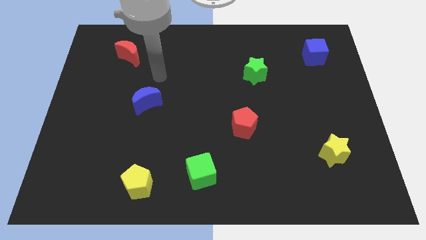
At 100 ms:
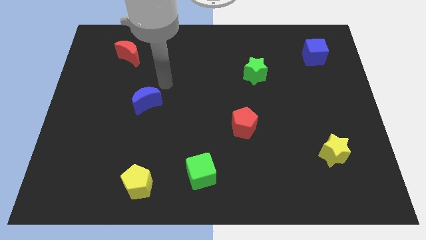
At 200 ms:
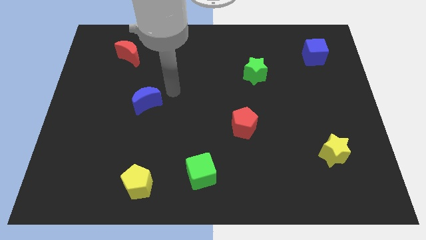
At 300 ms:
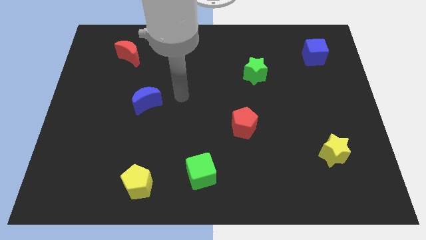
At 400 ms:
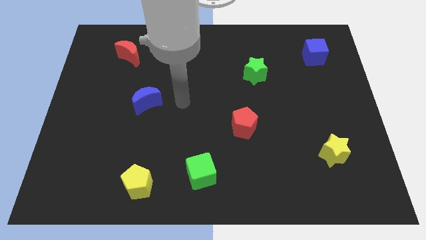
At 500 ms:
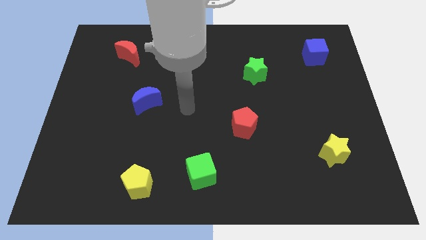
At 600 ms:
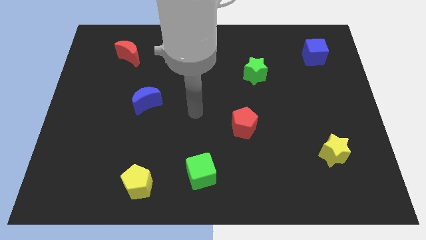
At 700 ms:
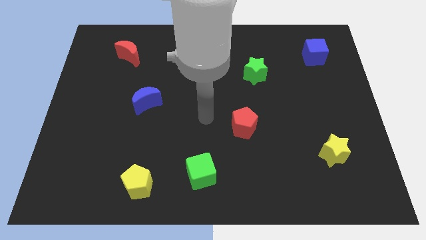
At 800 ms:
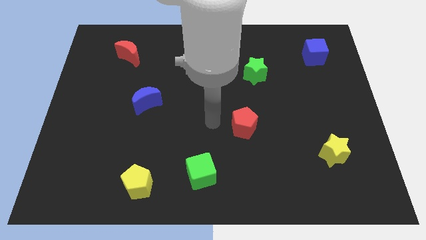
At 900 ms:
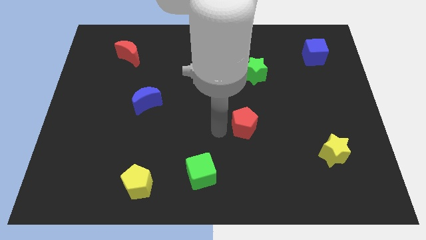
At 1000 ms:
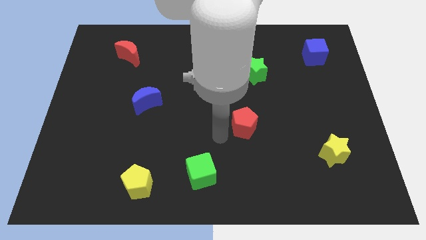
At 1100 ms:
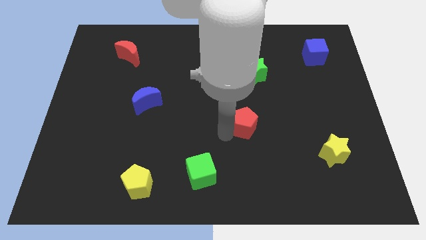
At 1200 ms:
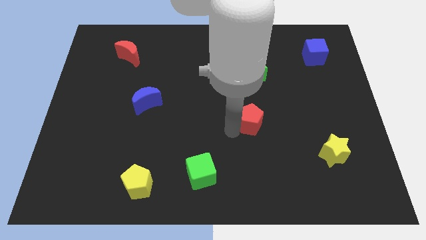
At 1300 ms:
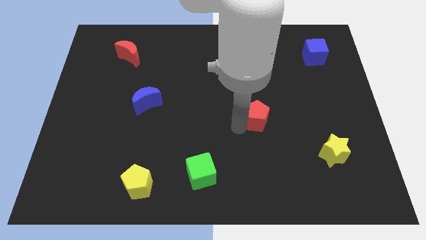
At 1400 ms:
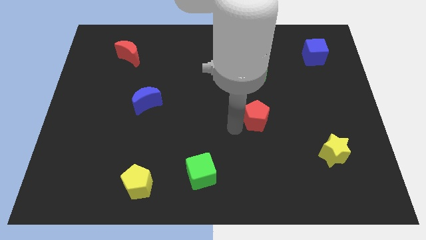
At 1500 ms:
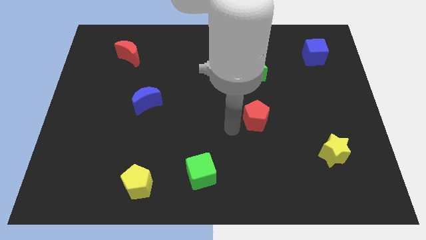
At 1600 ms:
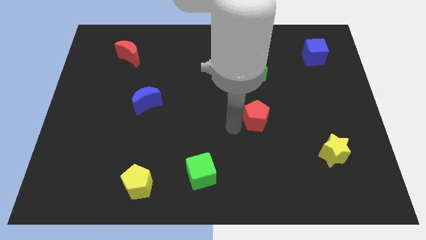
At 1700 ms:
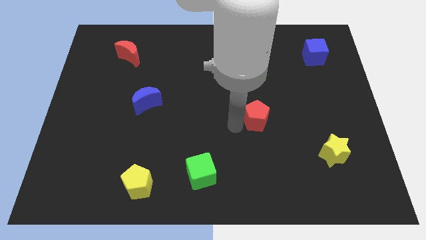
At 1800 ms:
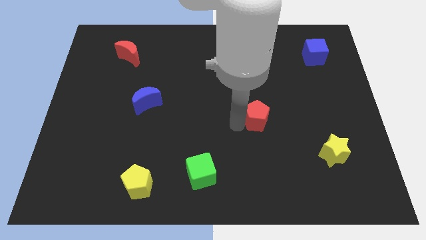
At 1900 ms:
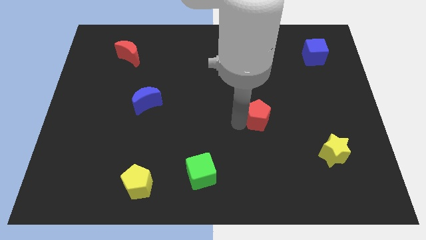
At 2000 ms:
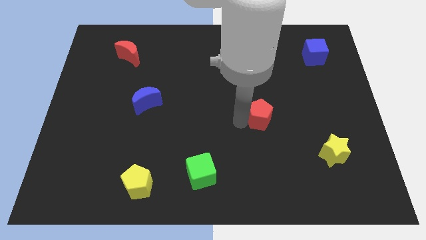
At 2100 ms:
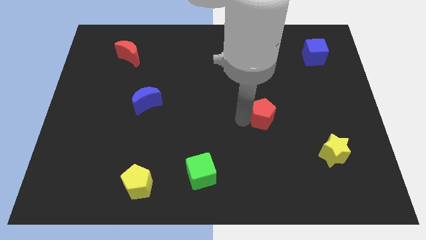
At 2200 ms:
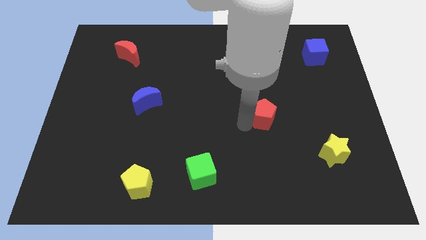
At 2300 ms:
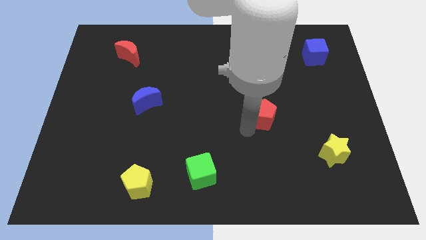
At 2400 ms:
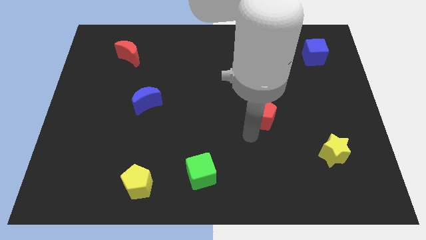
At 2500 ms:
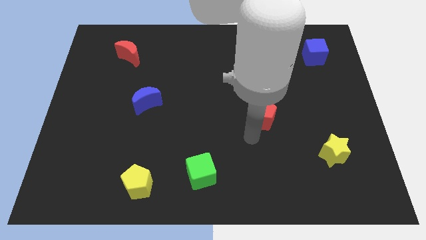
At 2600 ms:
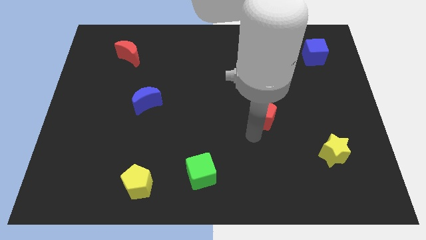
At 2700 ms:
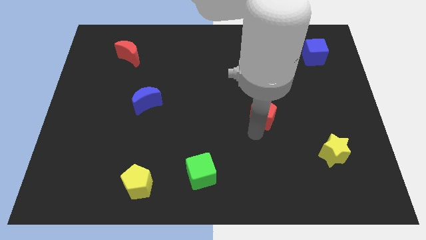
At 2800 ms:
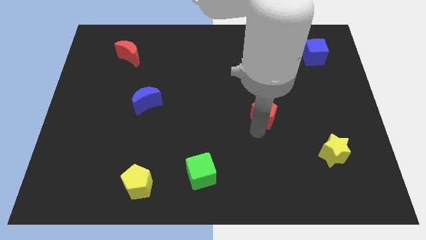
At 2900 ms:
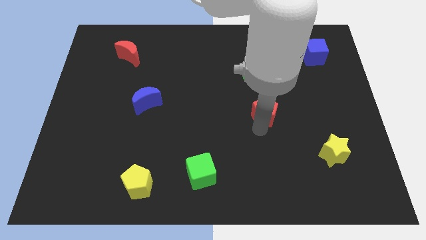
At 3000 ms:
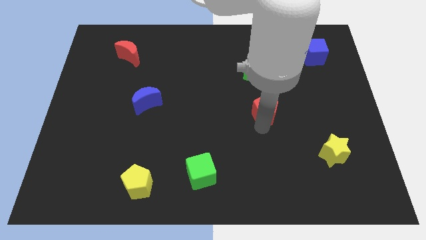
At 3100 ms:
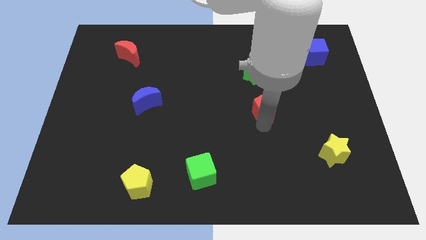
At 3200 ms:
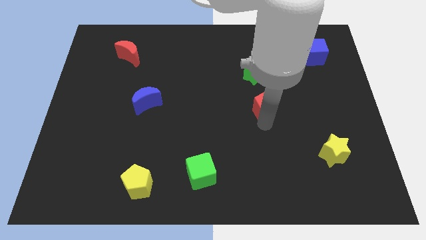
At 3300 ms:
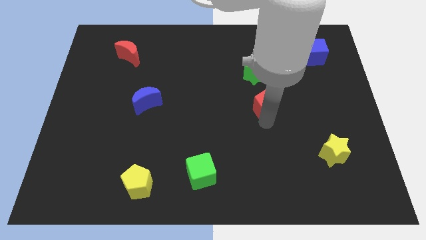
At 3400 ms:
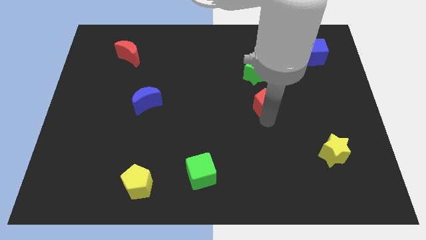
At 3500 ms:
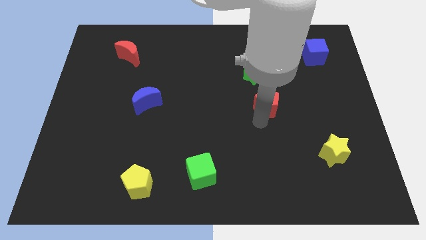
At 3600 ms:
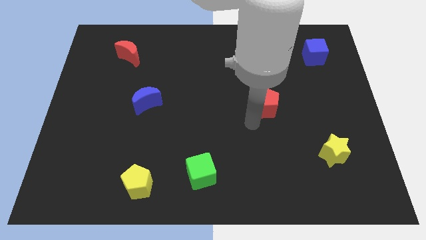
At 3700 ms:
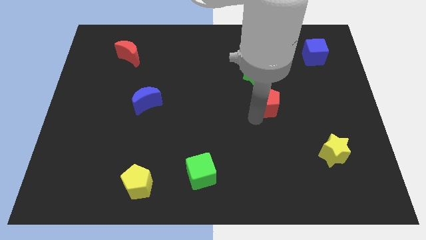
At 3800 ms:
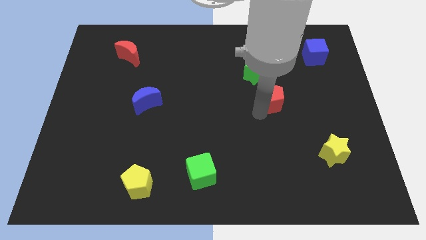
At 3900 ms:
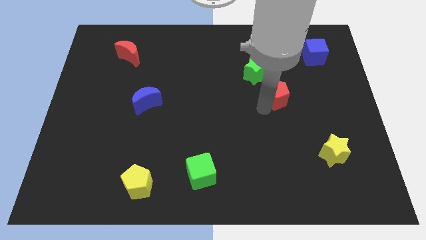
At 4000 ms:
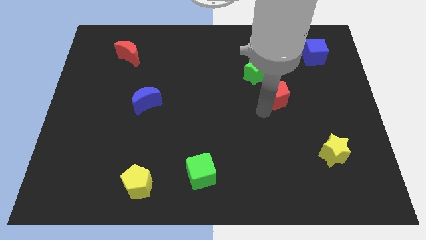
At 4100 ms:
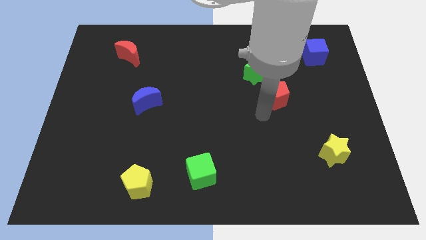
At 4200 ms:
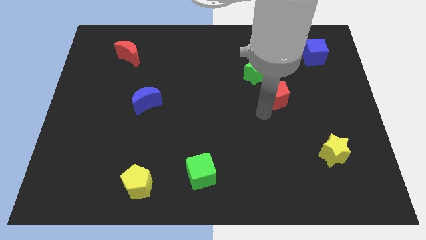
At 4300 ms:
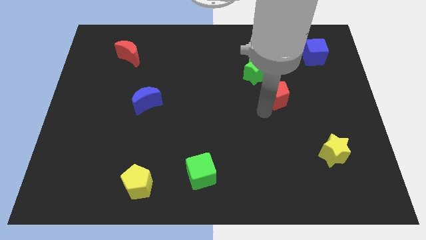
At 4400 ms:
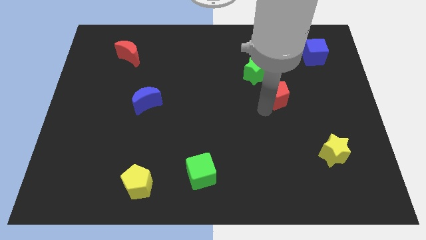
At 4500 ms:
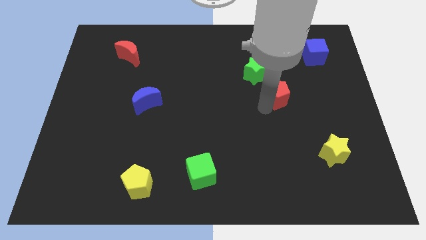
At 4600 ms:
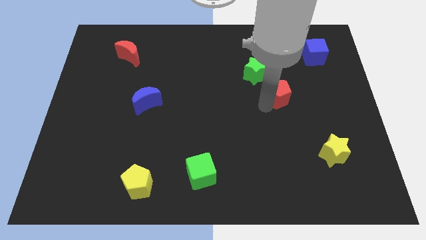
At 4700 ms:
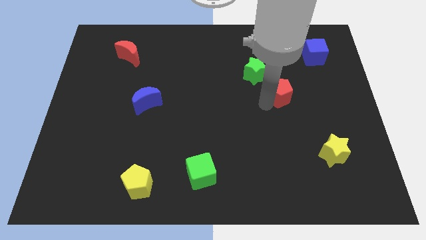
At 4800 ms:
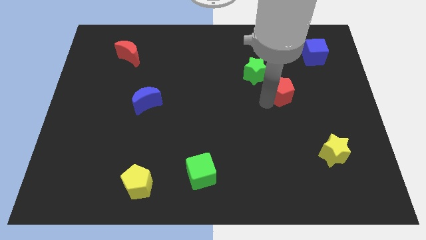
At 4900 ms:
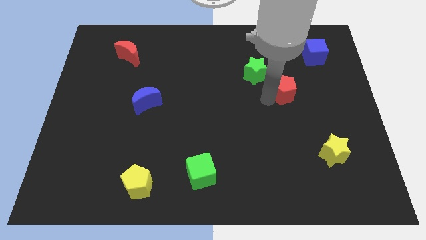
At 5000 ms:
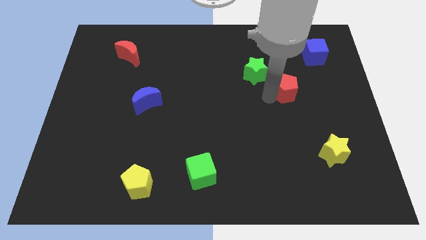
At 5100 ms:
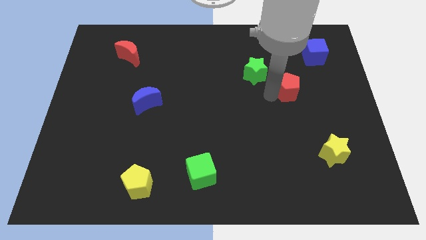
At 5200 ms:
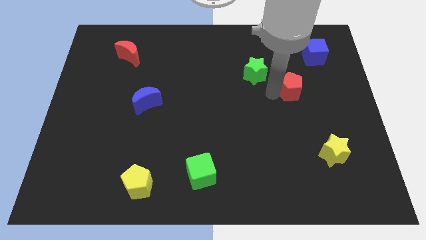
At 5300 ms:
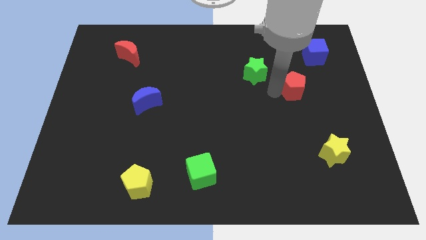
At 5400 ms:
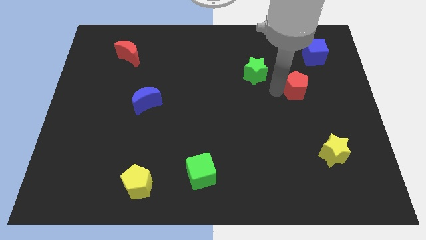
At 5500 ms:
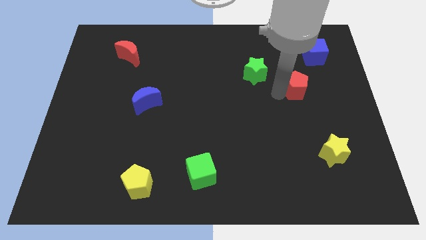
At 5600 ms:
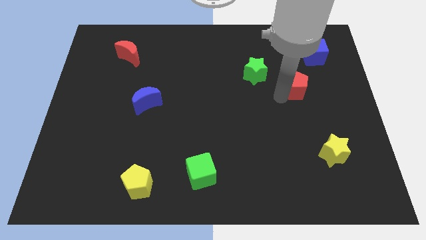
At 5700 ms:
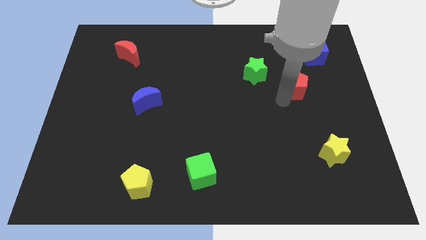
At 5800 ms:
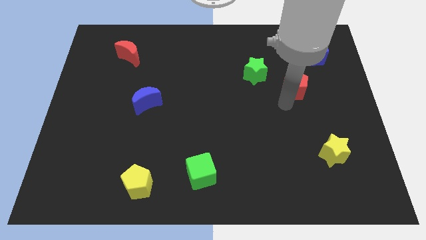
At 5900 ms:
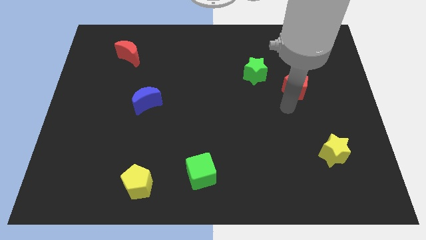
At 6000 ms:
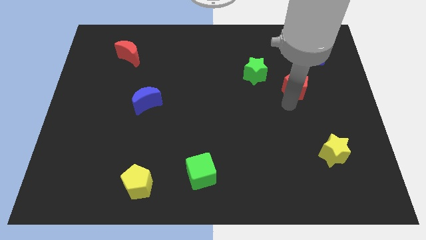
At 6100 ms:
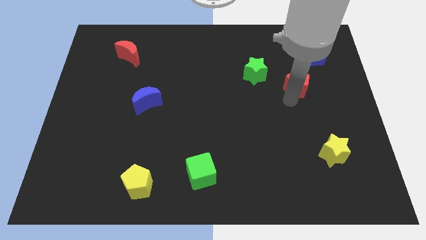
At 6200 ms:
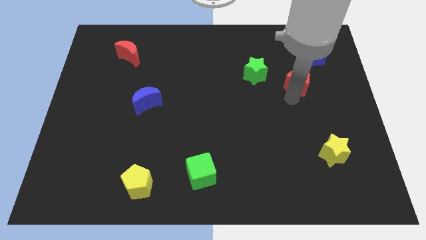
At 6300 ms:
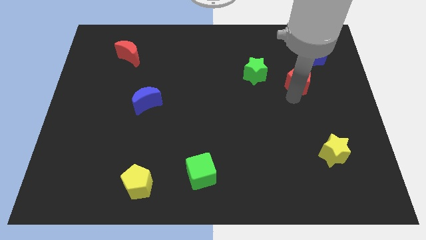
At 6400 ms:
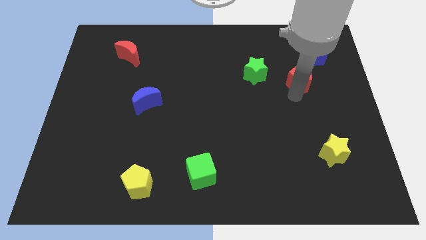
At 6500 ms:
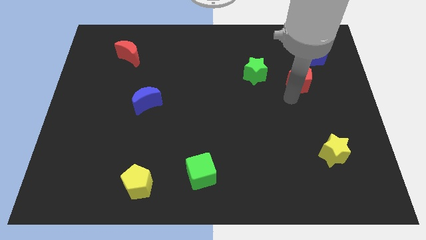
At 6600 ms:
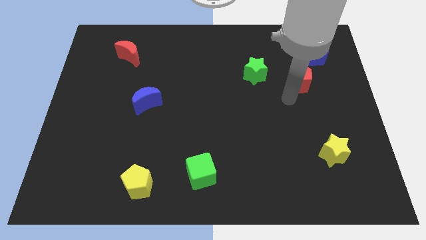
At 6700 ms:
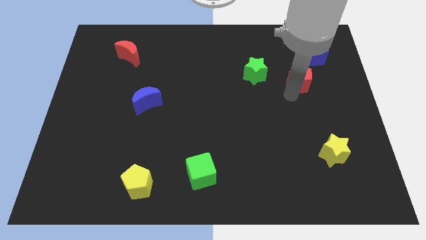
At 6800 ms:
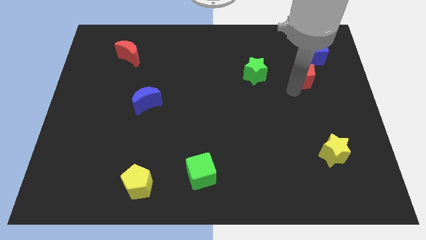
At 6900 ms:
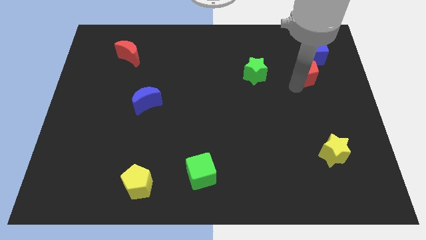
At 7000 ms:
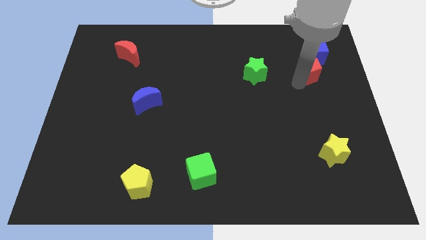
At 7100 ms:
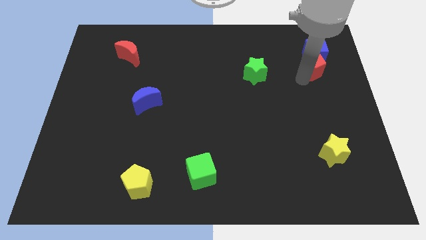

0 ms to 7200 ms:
slide the red pentagon close to the blue cube
